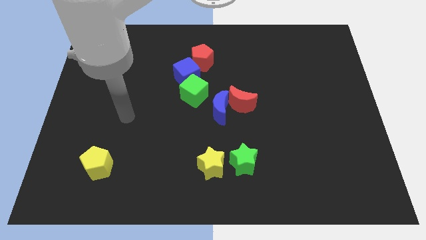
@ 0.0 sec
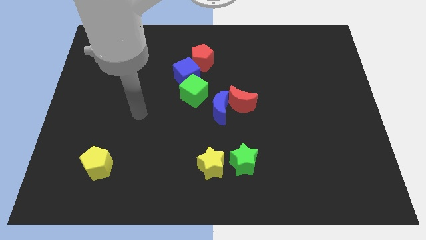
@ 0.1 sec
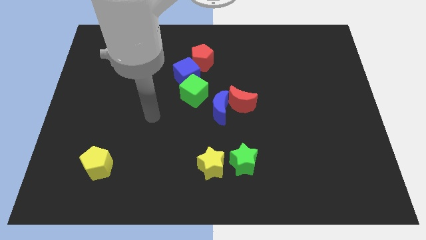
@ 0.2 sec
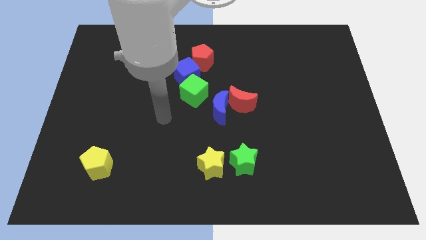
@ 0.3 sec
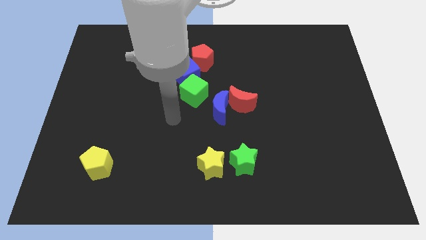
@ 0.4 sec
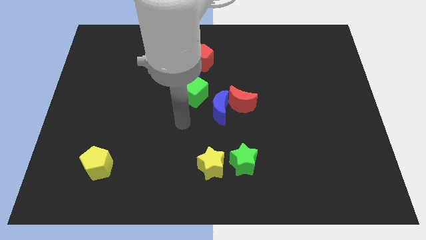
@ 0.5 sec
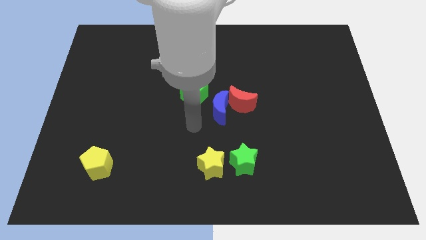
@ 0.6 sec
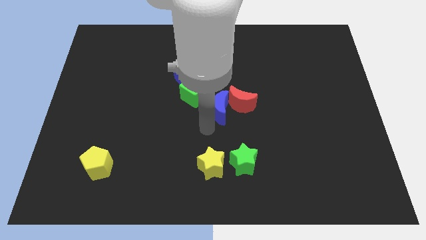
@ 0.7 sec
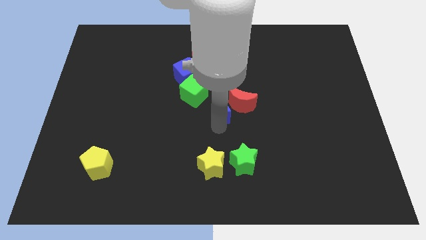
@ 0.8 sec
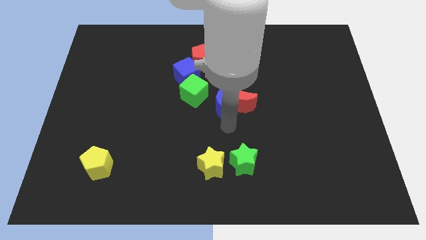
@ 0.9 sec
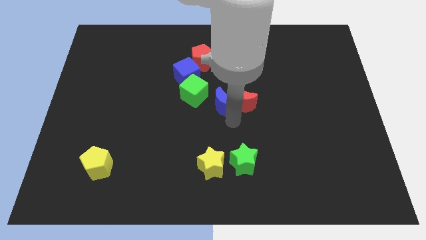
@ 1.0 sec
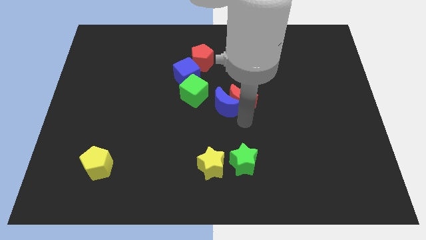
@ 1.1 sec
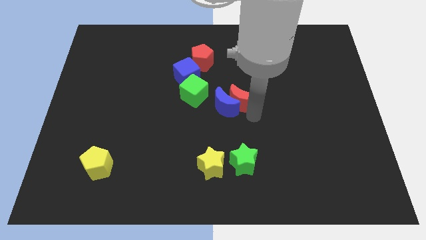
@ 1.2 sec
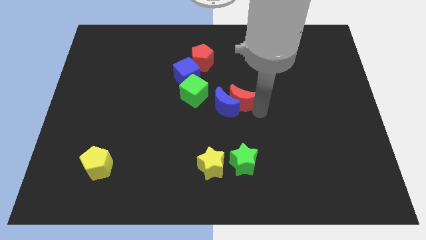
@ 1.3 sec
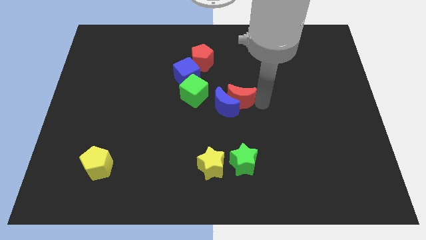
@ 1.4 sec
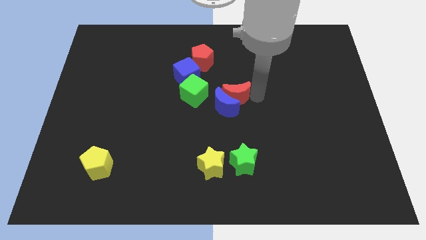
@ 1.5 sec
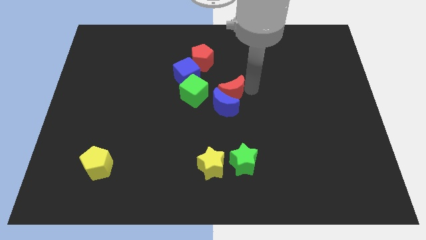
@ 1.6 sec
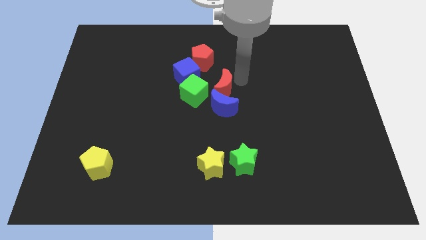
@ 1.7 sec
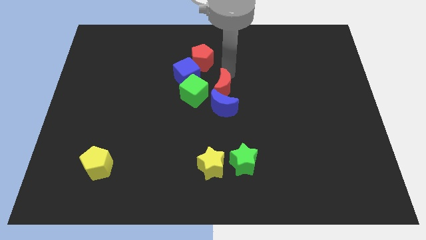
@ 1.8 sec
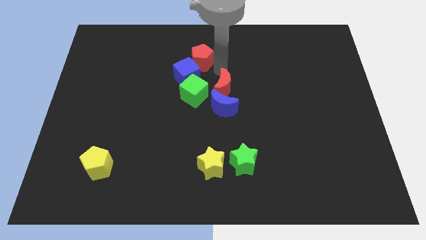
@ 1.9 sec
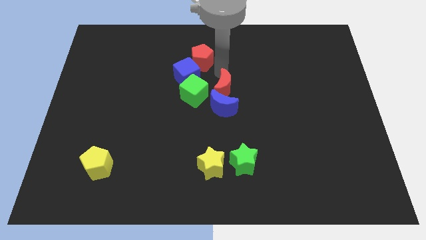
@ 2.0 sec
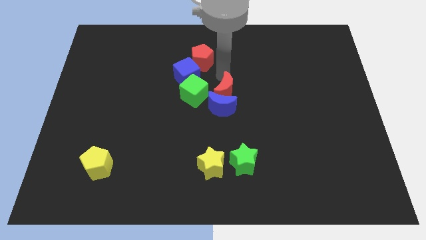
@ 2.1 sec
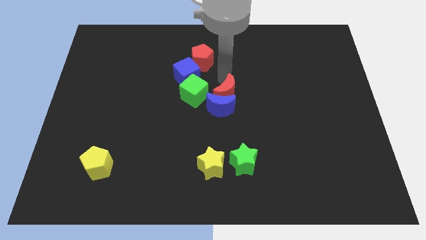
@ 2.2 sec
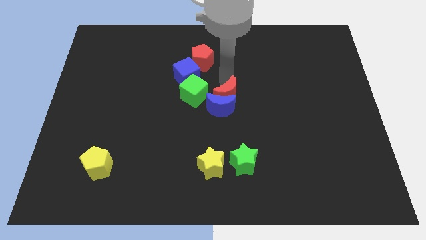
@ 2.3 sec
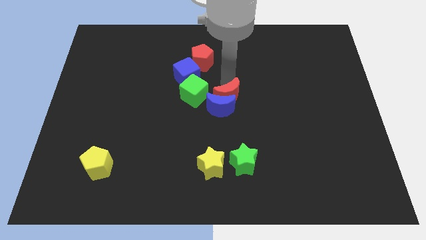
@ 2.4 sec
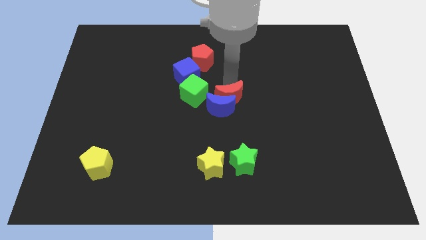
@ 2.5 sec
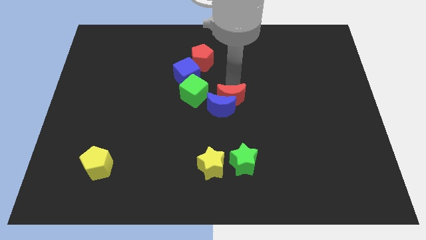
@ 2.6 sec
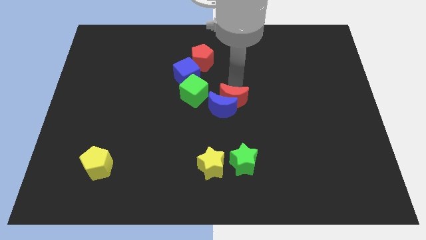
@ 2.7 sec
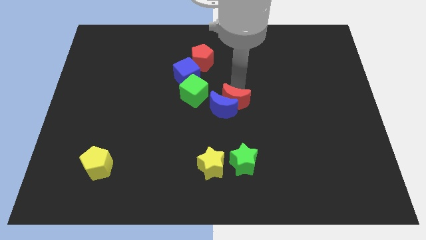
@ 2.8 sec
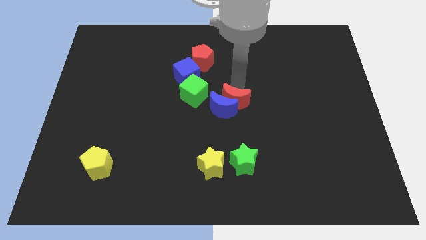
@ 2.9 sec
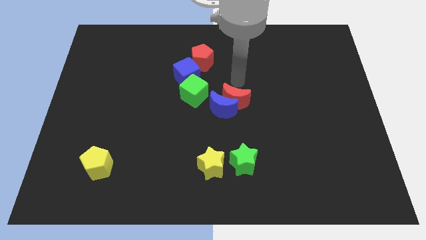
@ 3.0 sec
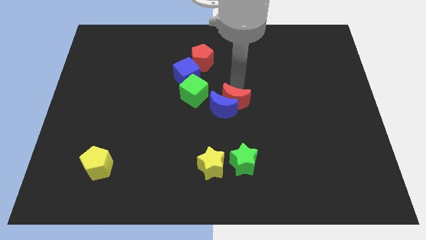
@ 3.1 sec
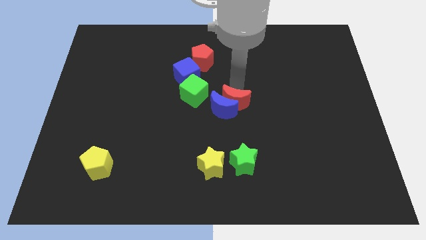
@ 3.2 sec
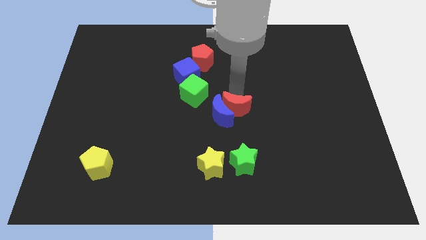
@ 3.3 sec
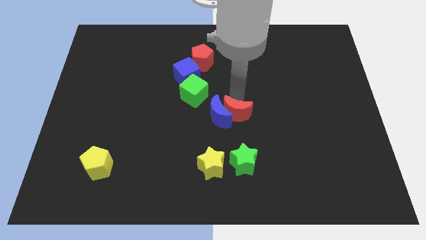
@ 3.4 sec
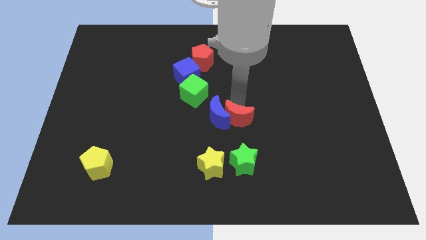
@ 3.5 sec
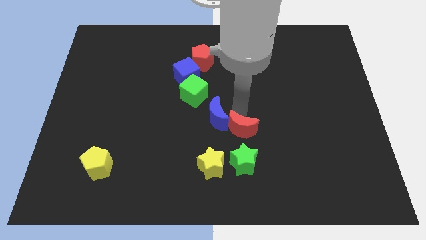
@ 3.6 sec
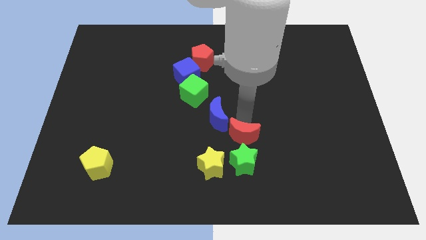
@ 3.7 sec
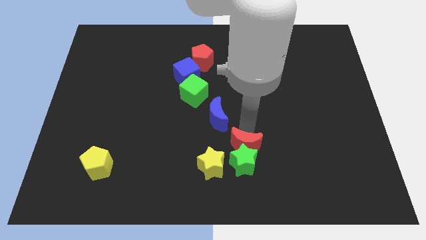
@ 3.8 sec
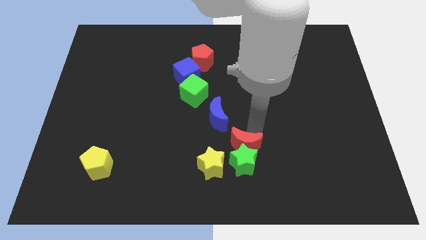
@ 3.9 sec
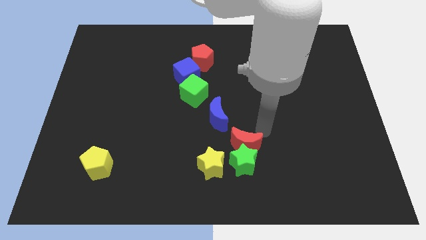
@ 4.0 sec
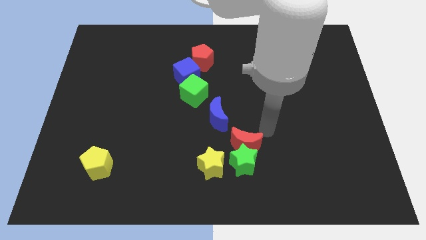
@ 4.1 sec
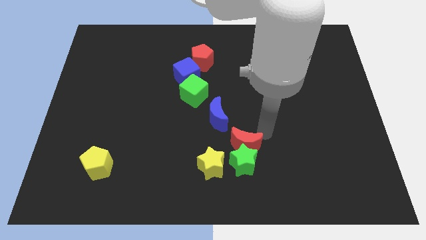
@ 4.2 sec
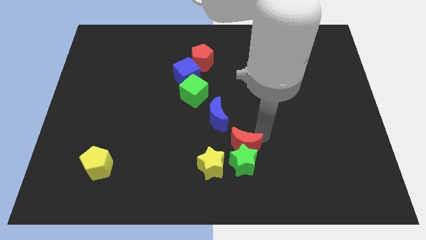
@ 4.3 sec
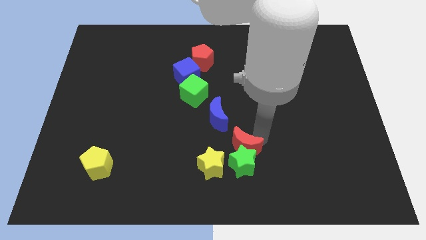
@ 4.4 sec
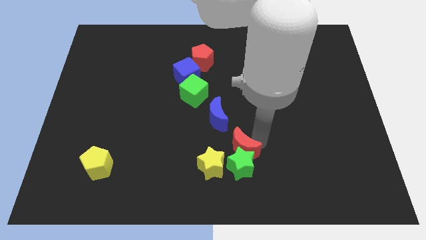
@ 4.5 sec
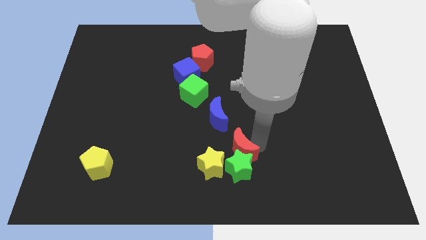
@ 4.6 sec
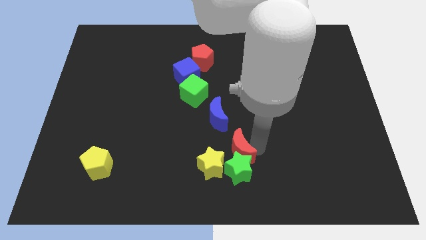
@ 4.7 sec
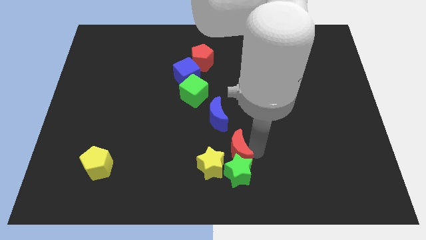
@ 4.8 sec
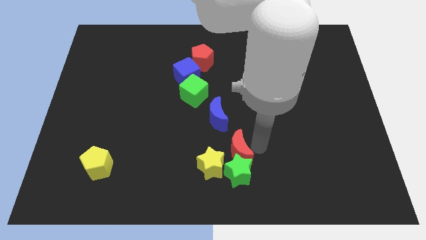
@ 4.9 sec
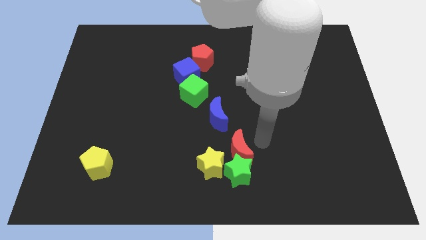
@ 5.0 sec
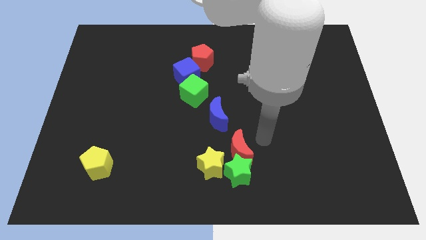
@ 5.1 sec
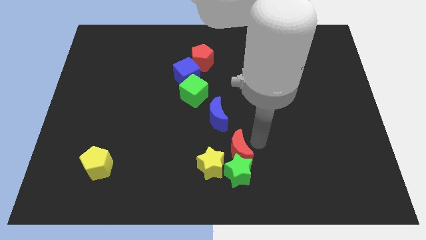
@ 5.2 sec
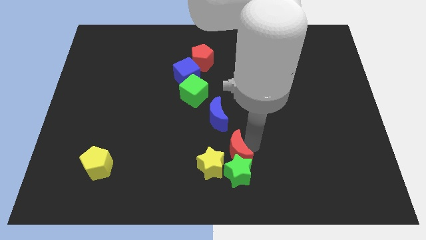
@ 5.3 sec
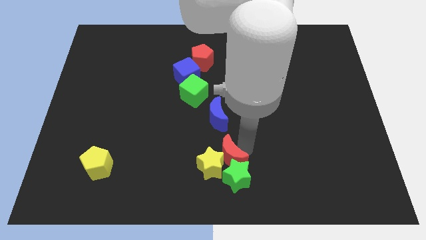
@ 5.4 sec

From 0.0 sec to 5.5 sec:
put the red moon close to the yellow star

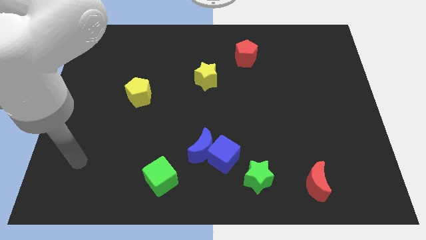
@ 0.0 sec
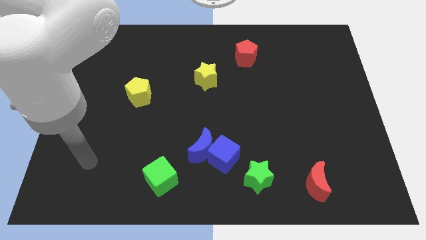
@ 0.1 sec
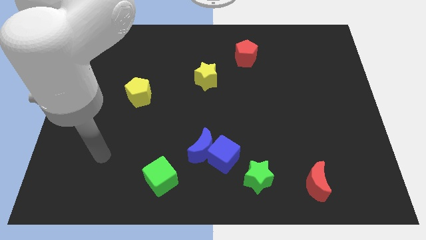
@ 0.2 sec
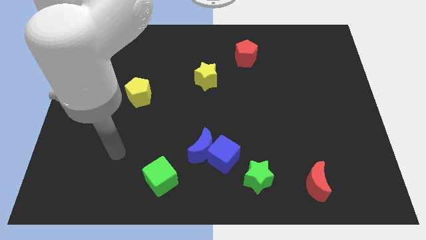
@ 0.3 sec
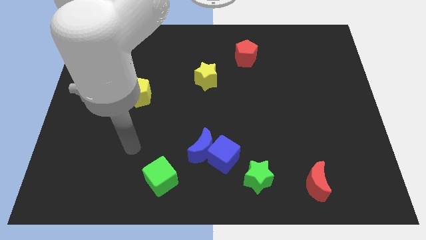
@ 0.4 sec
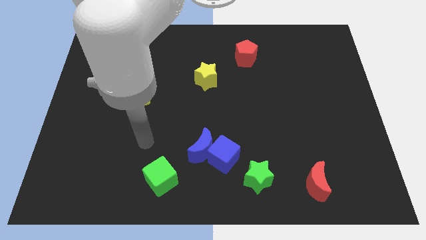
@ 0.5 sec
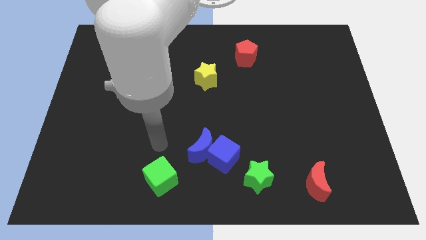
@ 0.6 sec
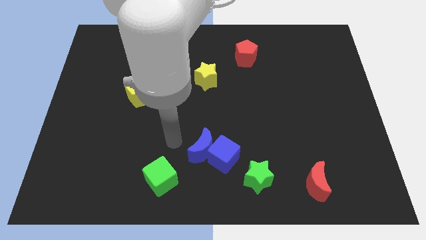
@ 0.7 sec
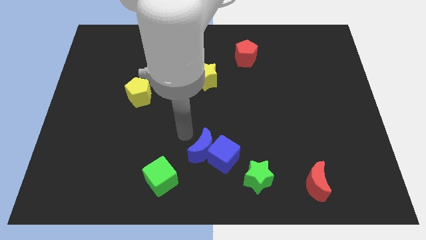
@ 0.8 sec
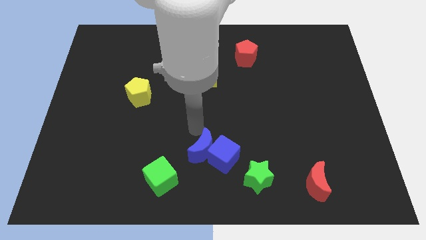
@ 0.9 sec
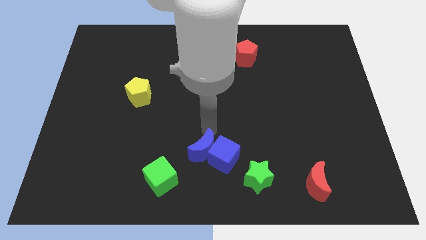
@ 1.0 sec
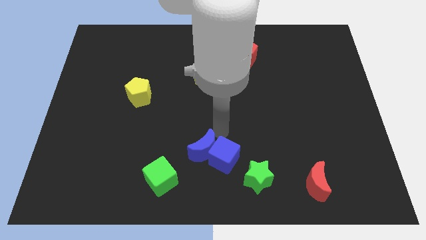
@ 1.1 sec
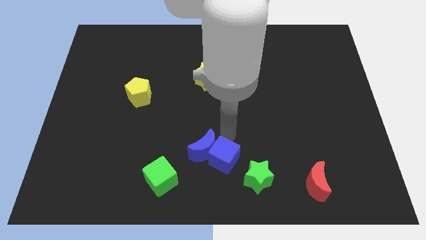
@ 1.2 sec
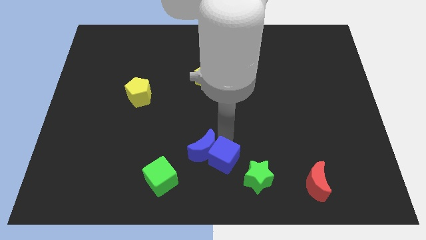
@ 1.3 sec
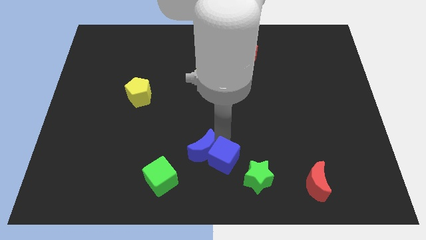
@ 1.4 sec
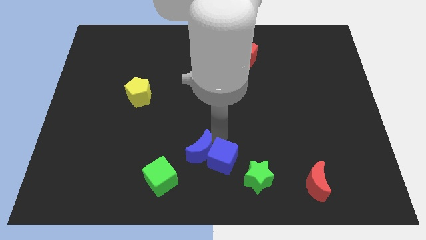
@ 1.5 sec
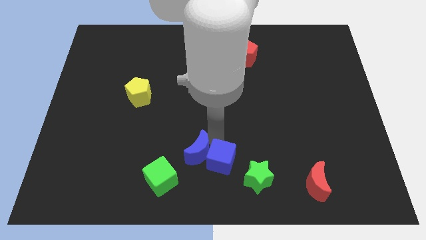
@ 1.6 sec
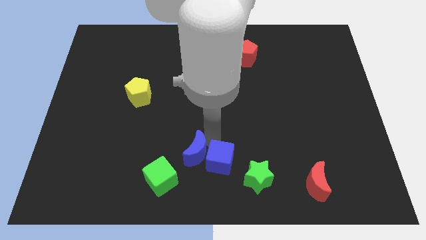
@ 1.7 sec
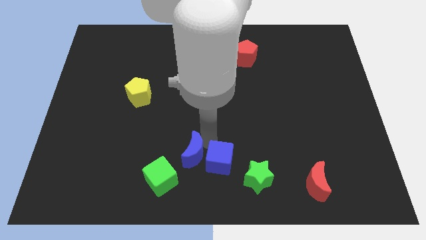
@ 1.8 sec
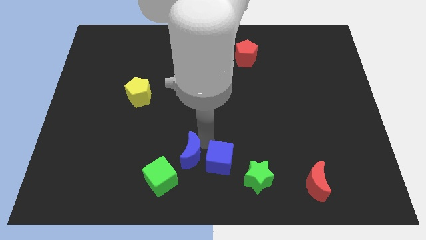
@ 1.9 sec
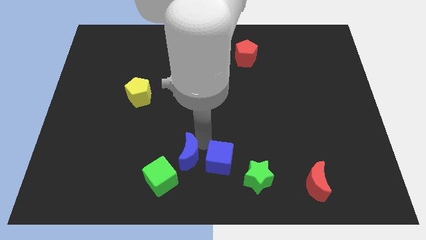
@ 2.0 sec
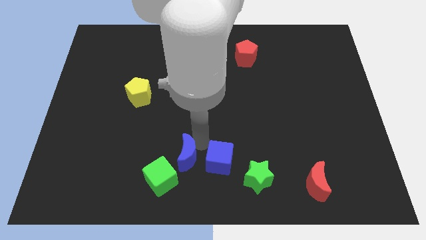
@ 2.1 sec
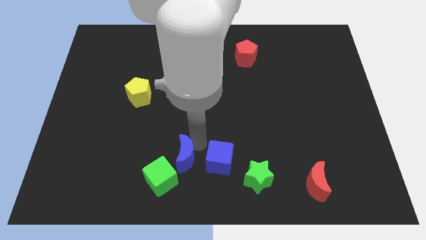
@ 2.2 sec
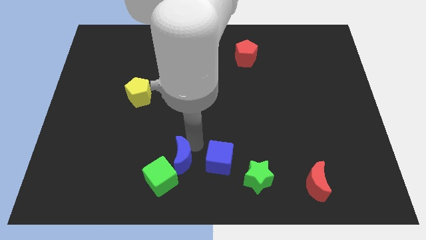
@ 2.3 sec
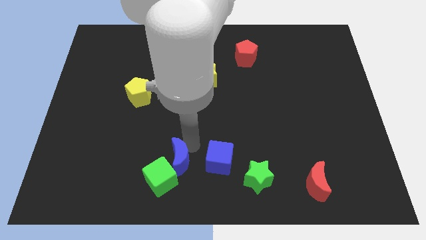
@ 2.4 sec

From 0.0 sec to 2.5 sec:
move the blue moon towards the green cube
